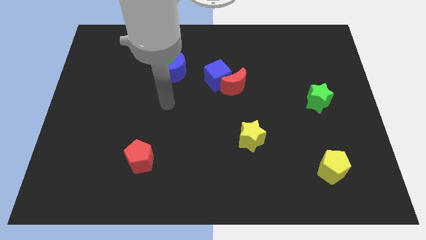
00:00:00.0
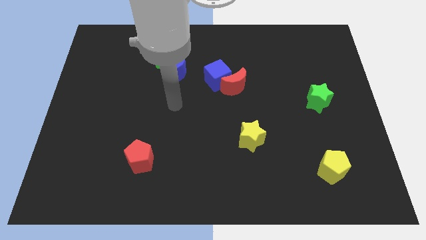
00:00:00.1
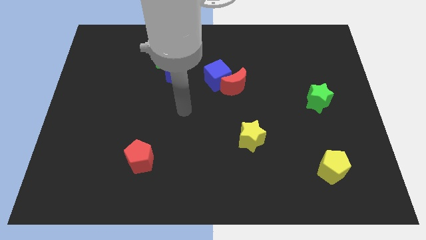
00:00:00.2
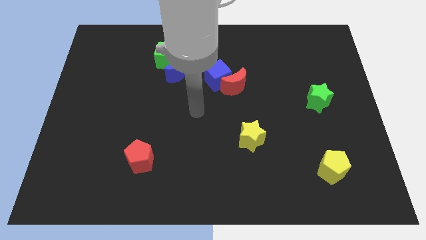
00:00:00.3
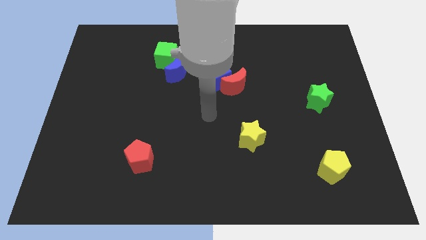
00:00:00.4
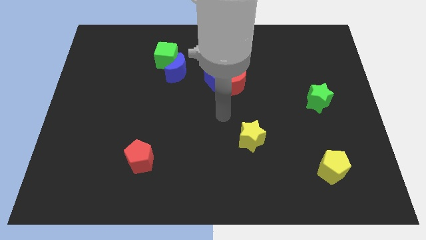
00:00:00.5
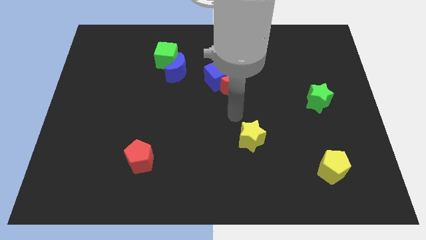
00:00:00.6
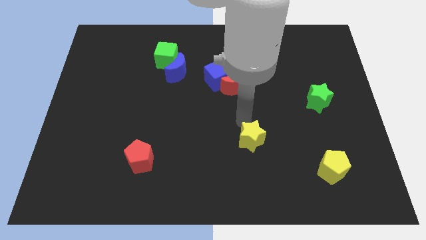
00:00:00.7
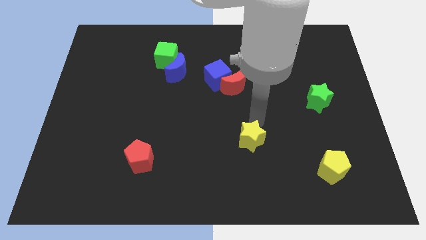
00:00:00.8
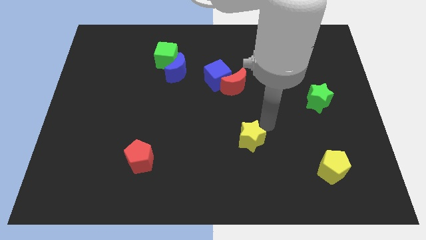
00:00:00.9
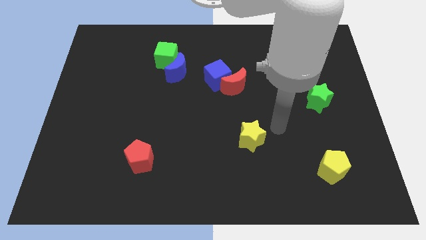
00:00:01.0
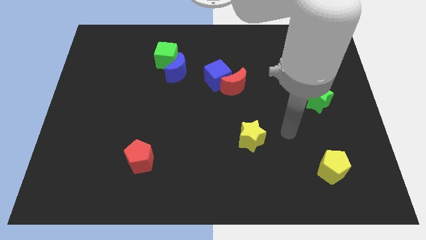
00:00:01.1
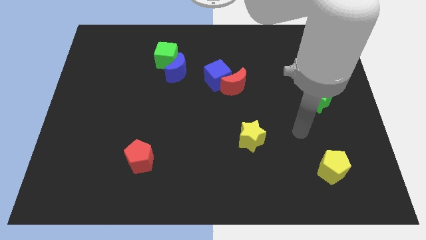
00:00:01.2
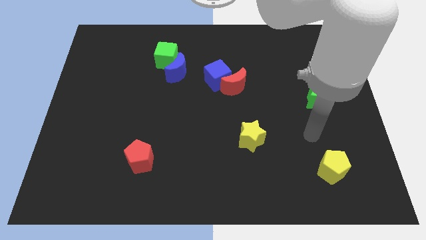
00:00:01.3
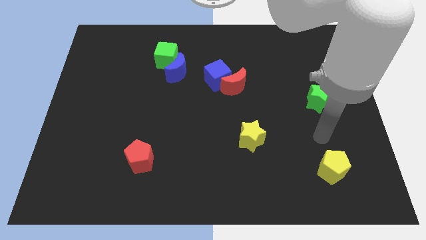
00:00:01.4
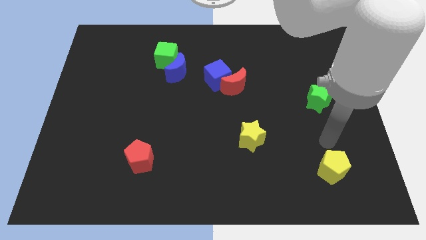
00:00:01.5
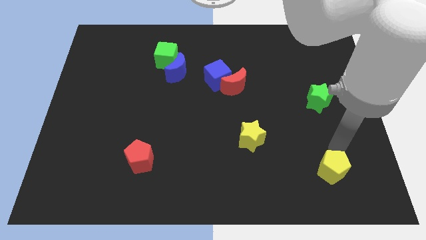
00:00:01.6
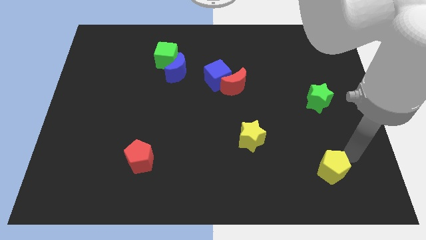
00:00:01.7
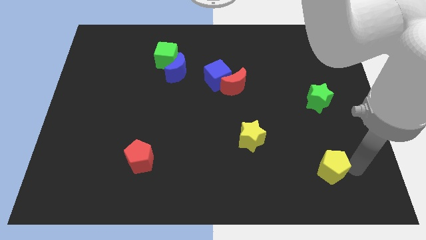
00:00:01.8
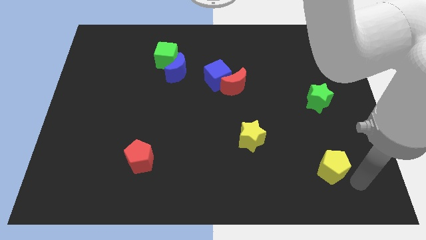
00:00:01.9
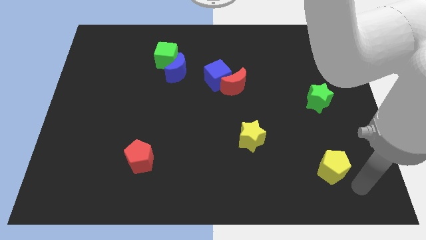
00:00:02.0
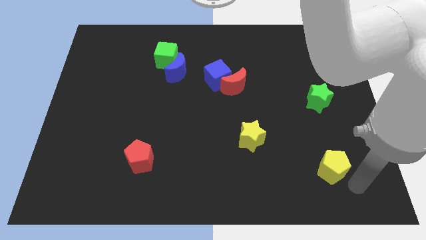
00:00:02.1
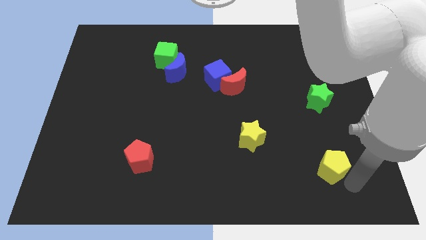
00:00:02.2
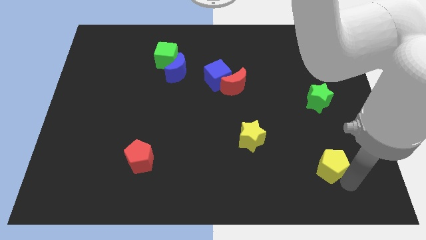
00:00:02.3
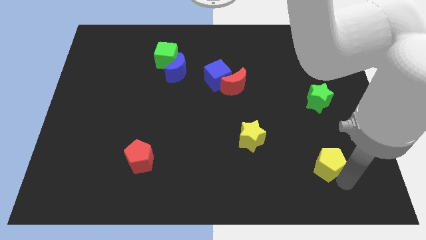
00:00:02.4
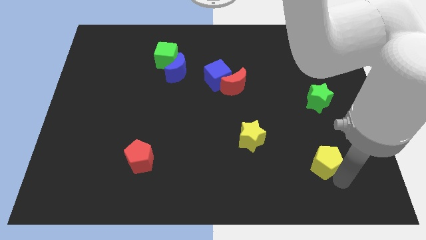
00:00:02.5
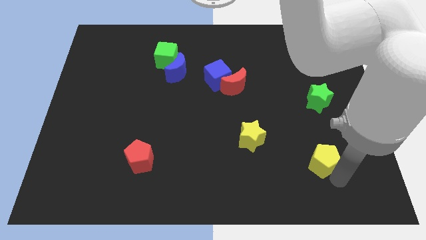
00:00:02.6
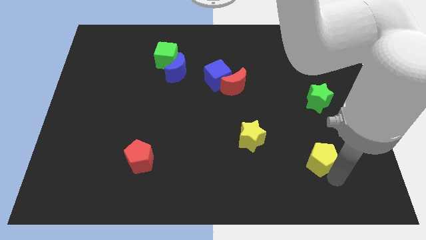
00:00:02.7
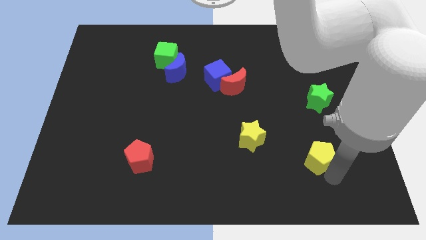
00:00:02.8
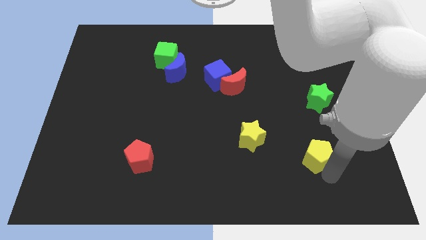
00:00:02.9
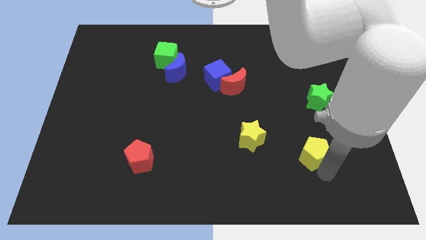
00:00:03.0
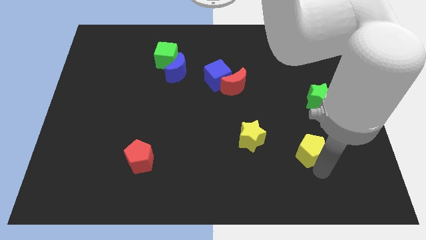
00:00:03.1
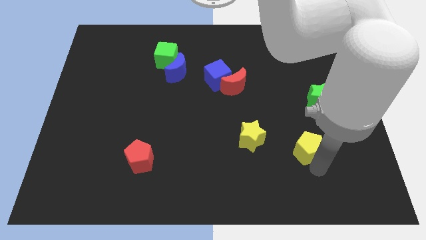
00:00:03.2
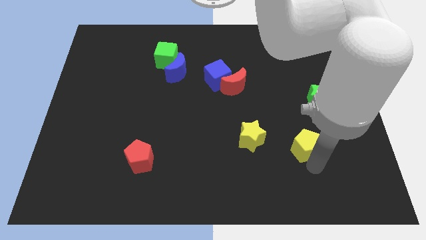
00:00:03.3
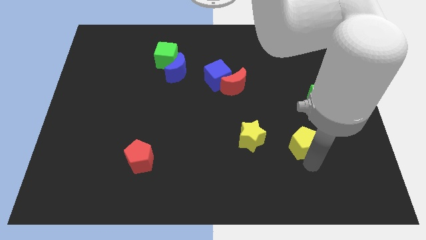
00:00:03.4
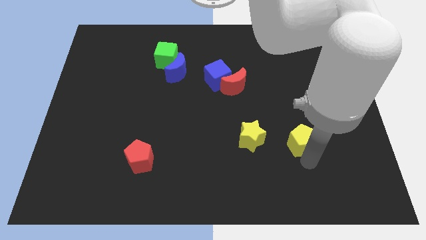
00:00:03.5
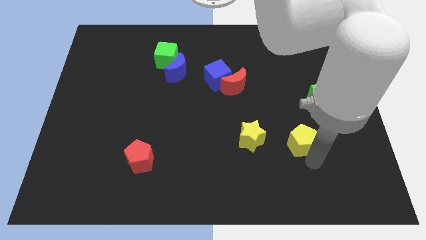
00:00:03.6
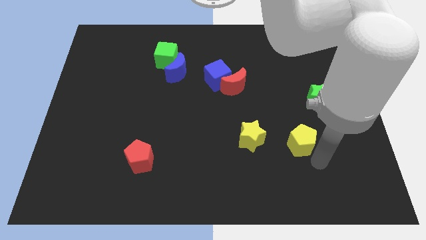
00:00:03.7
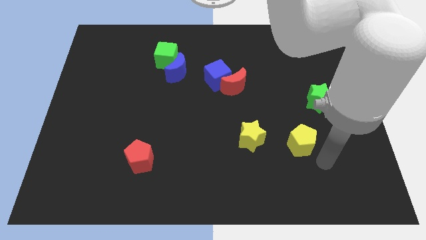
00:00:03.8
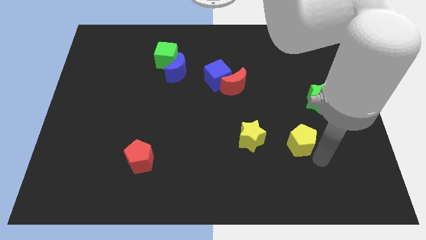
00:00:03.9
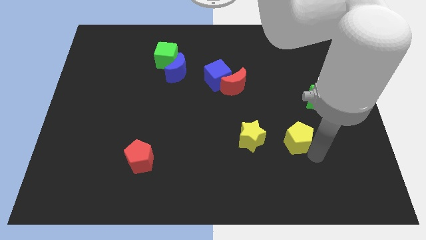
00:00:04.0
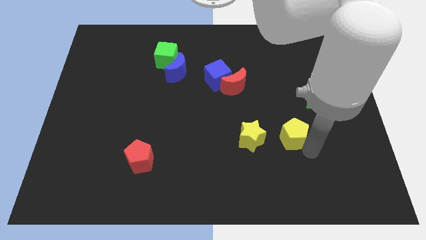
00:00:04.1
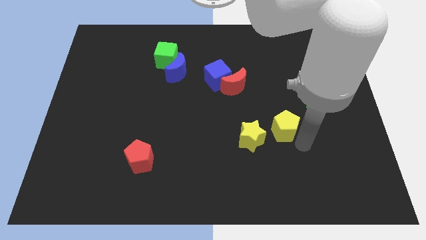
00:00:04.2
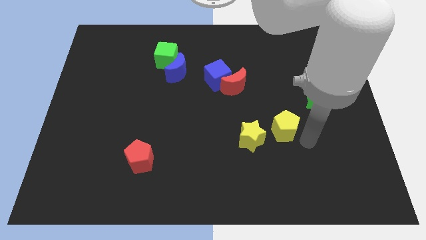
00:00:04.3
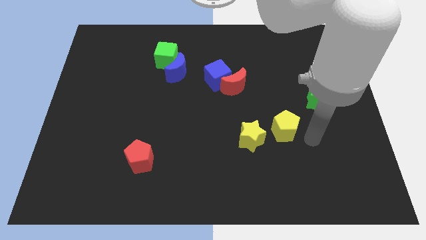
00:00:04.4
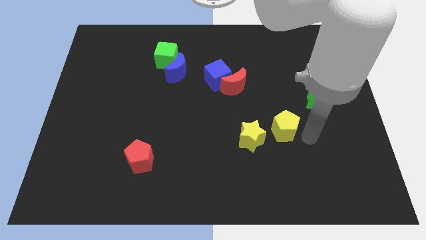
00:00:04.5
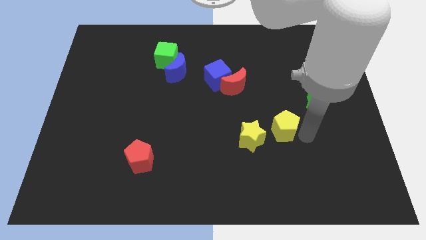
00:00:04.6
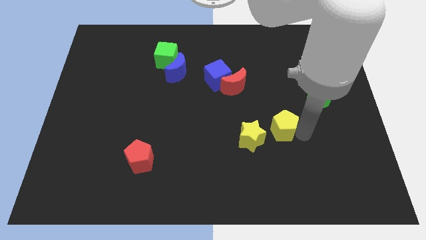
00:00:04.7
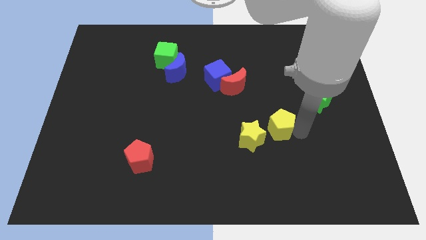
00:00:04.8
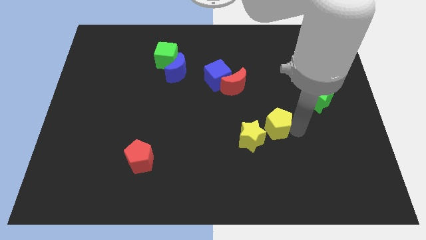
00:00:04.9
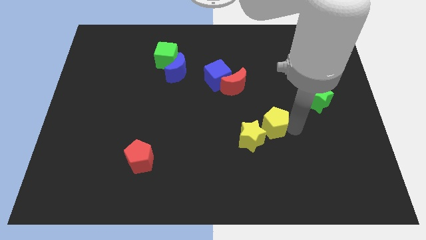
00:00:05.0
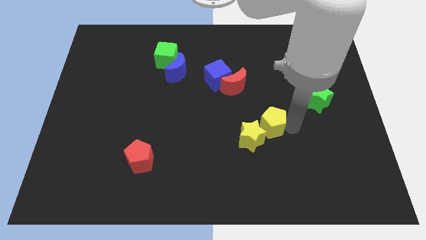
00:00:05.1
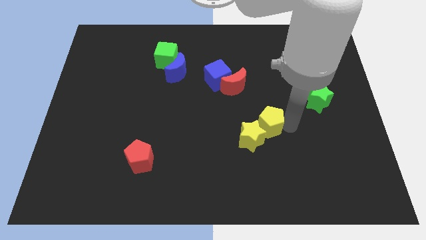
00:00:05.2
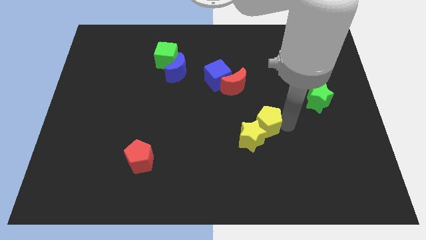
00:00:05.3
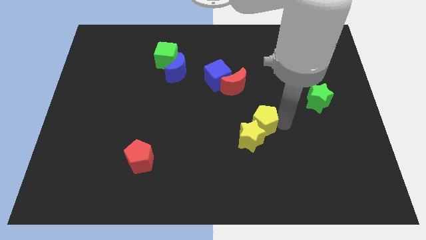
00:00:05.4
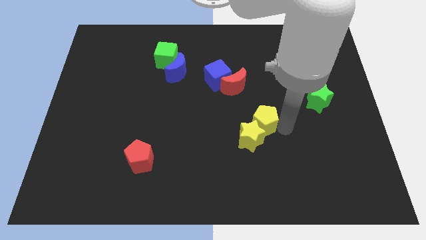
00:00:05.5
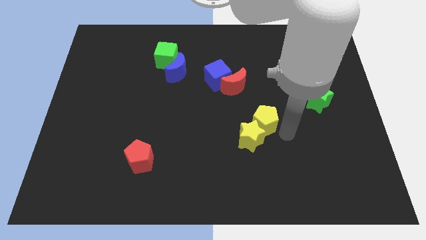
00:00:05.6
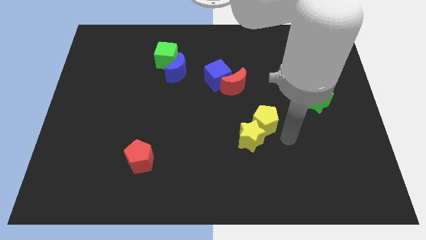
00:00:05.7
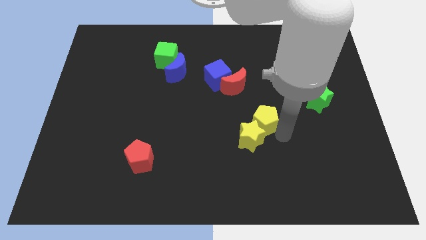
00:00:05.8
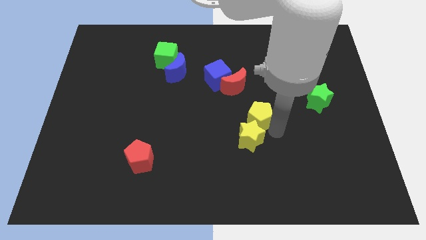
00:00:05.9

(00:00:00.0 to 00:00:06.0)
push the yellow pentagon to the center of the board
